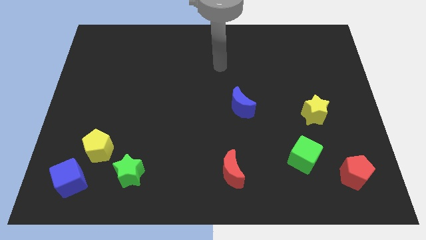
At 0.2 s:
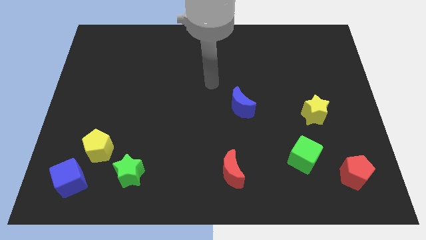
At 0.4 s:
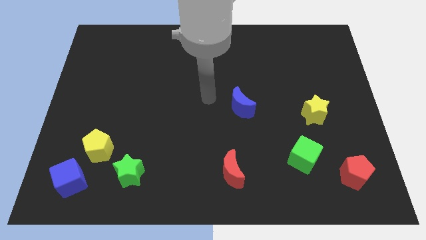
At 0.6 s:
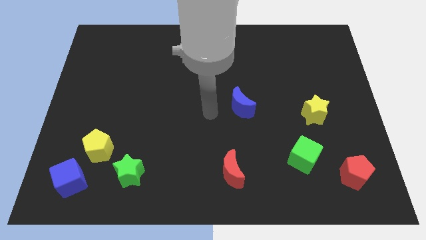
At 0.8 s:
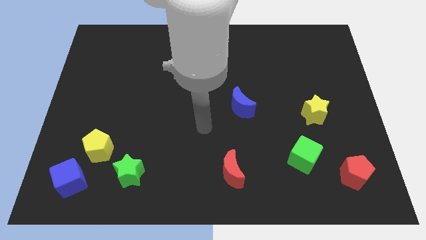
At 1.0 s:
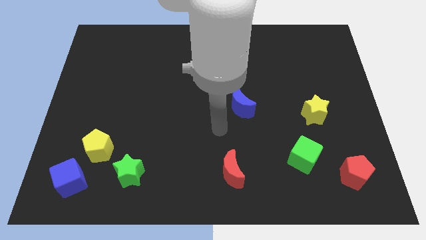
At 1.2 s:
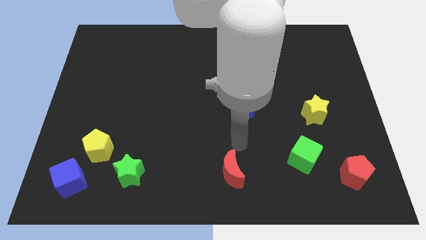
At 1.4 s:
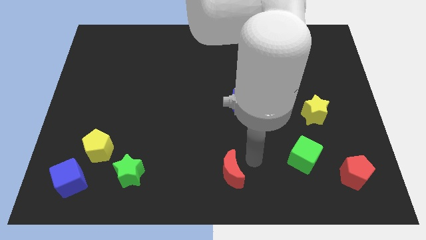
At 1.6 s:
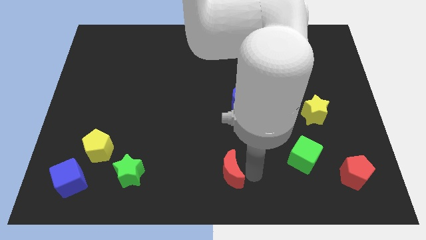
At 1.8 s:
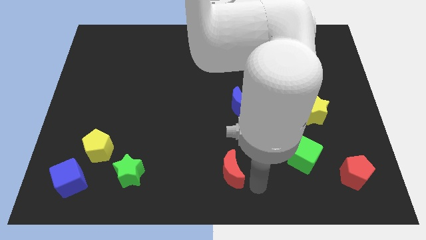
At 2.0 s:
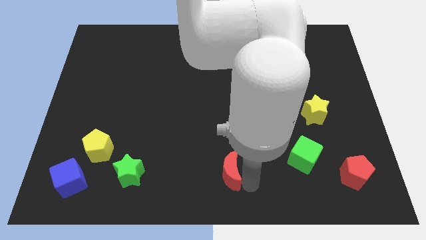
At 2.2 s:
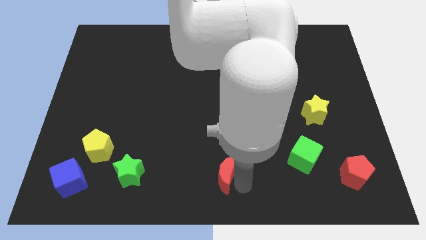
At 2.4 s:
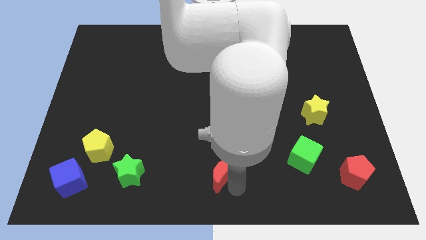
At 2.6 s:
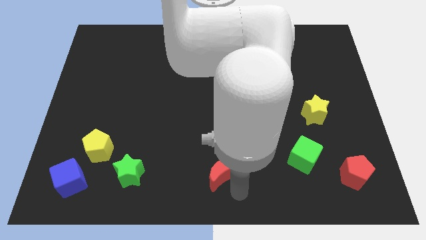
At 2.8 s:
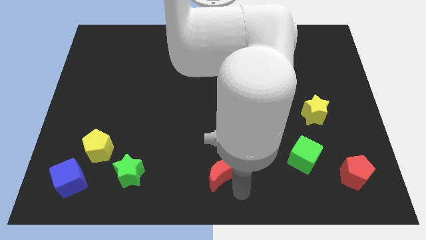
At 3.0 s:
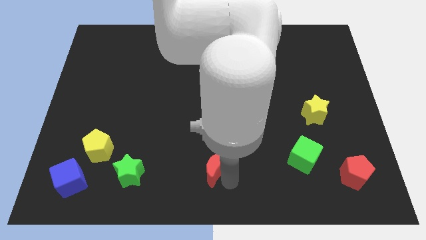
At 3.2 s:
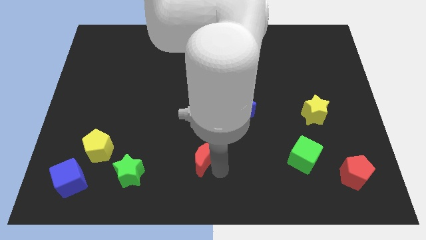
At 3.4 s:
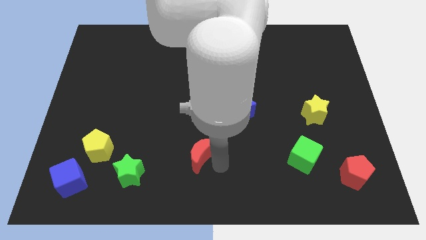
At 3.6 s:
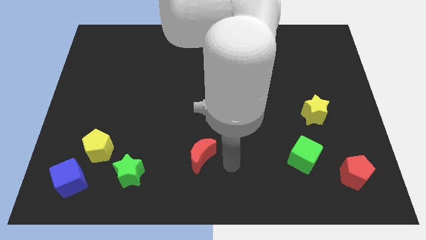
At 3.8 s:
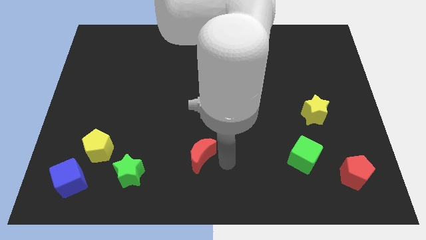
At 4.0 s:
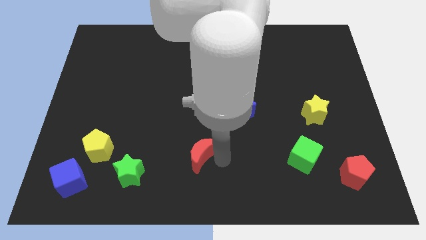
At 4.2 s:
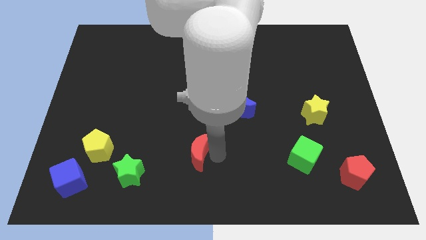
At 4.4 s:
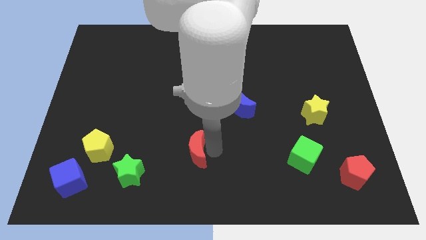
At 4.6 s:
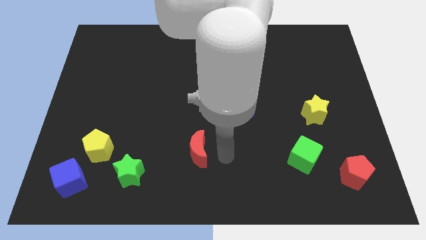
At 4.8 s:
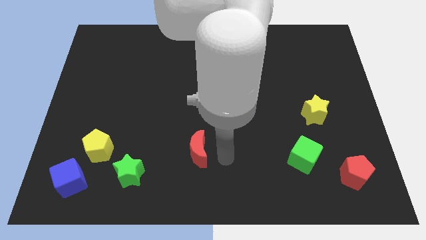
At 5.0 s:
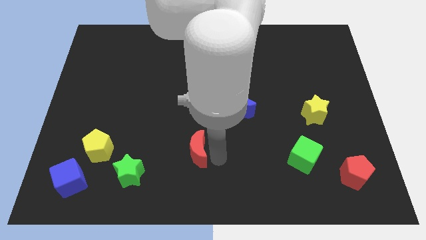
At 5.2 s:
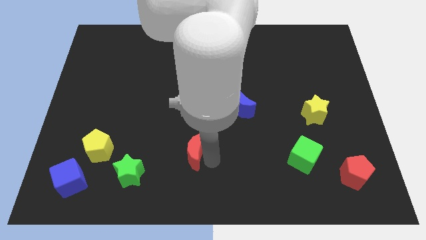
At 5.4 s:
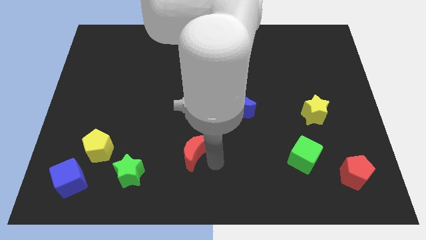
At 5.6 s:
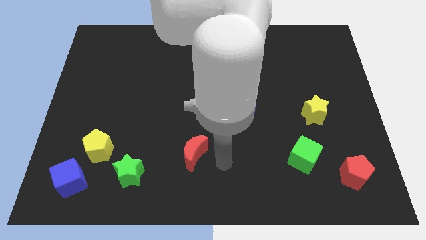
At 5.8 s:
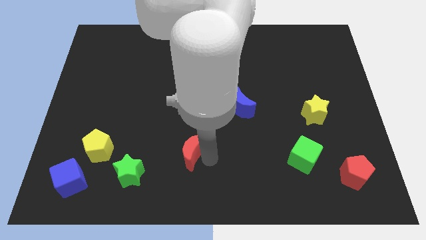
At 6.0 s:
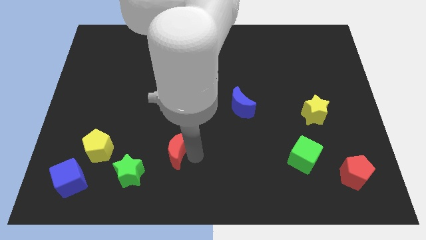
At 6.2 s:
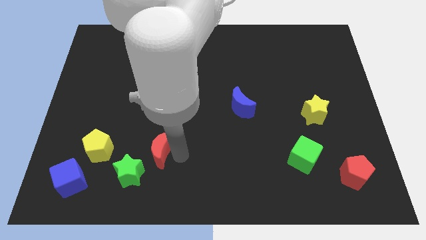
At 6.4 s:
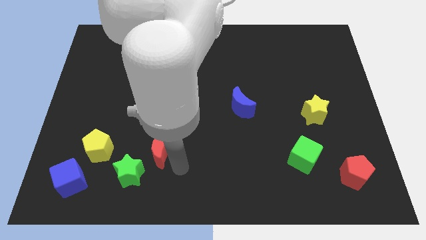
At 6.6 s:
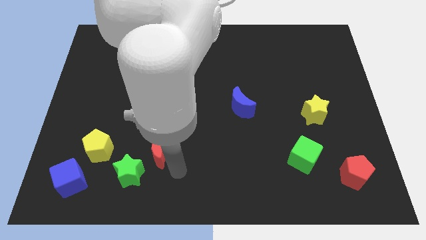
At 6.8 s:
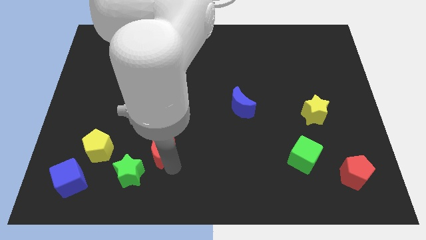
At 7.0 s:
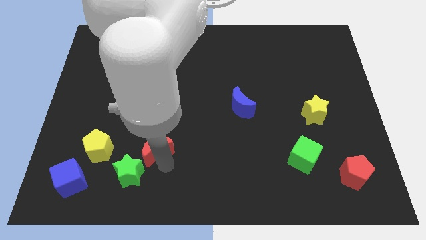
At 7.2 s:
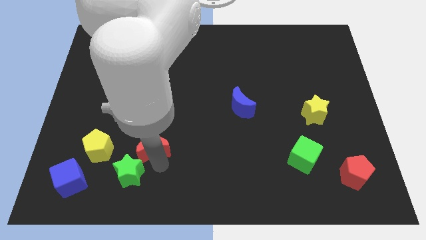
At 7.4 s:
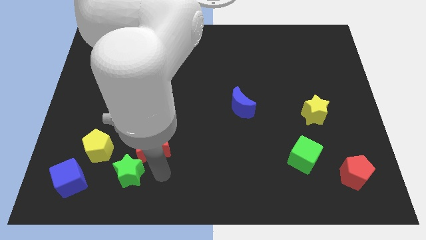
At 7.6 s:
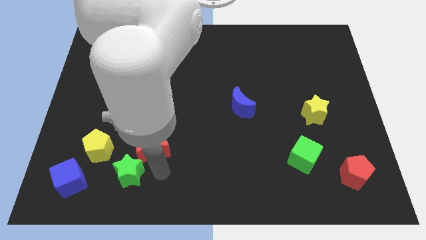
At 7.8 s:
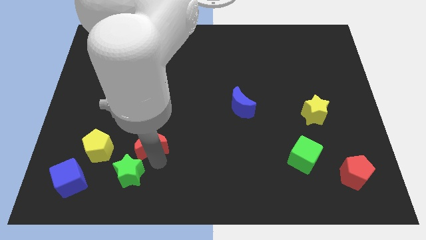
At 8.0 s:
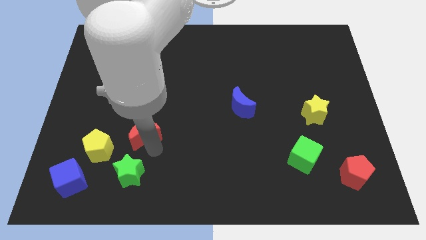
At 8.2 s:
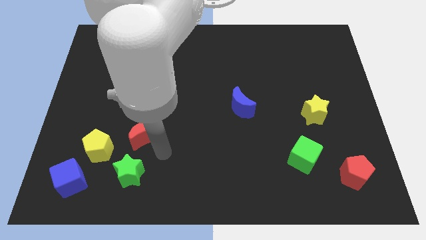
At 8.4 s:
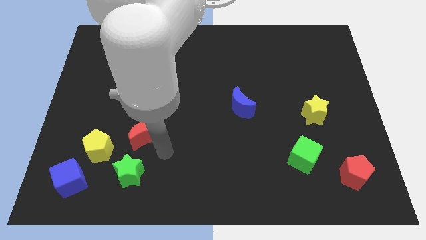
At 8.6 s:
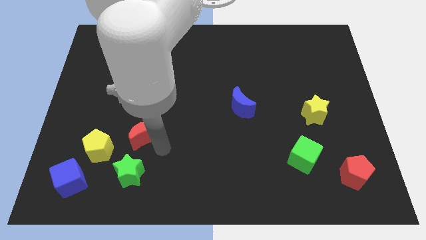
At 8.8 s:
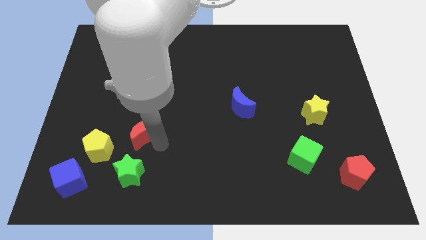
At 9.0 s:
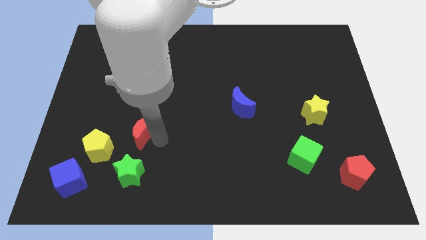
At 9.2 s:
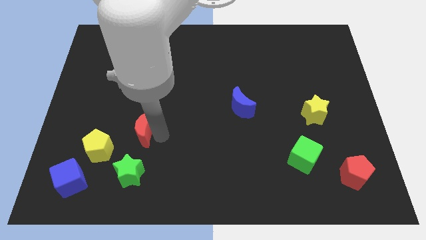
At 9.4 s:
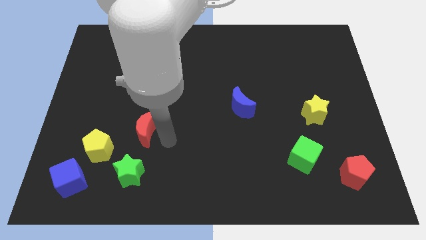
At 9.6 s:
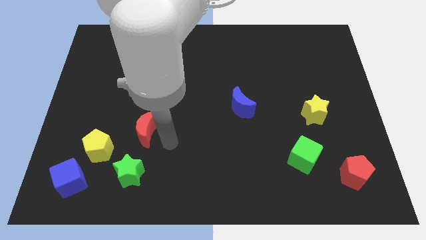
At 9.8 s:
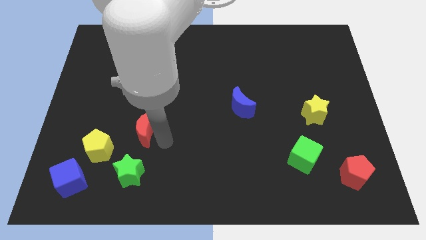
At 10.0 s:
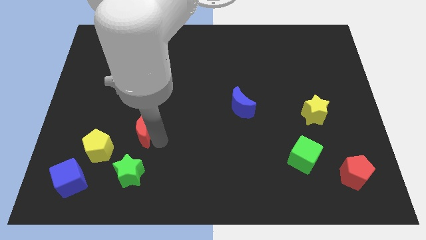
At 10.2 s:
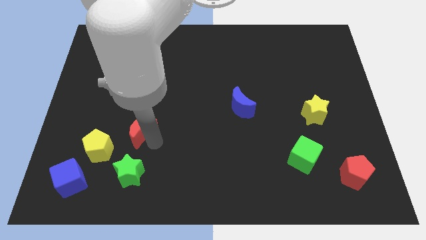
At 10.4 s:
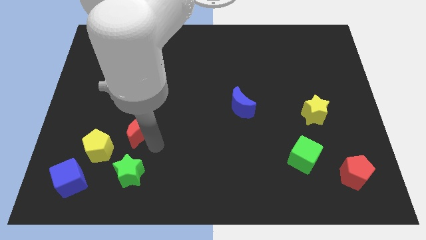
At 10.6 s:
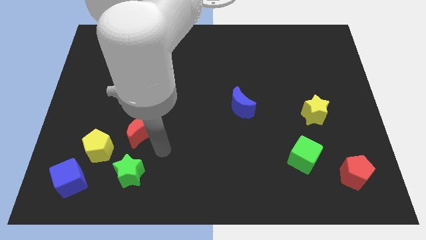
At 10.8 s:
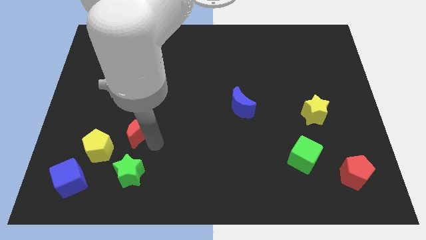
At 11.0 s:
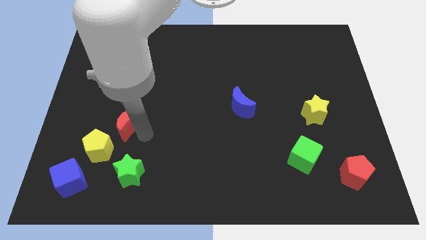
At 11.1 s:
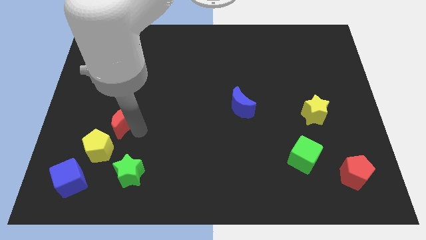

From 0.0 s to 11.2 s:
slide the red moon above the yellow pentagon

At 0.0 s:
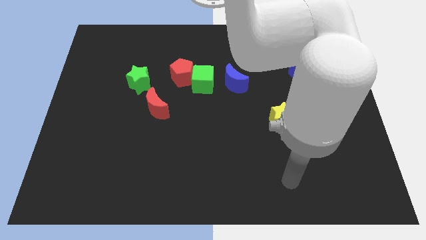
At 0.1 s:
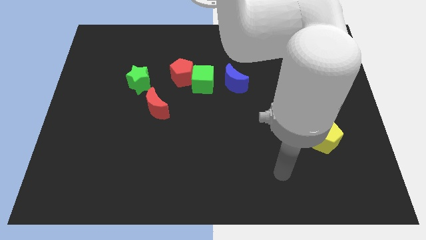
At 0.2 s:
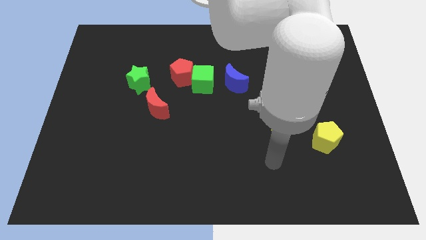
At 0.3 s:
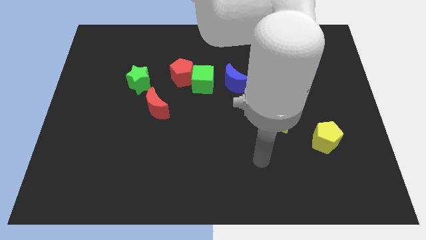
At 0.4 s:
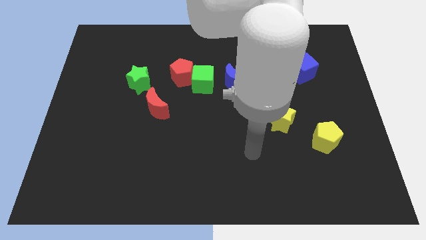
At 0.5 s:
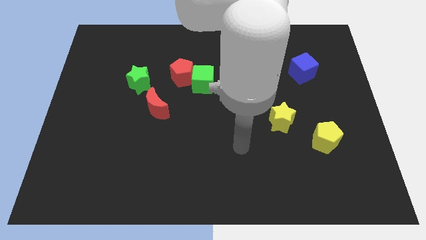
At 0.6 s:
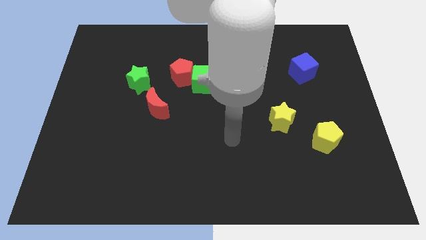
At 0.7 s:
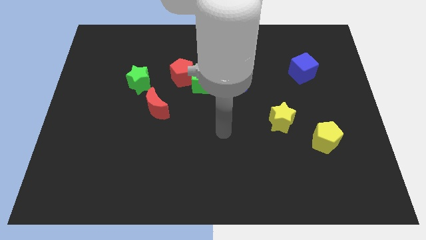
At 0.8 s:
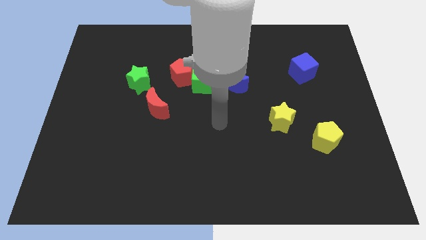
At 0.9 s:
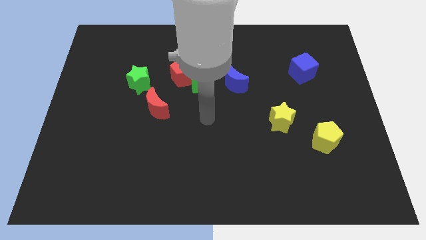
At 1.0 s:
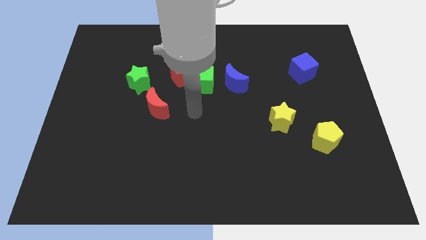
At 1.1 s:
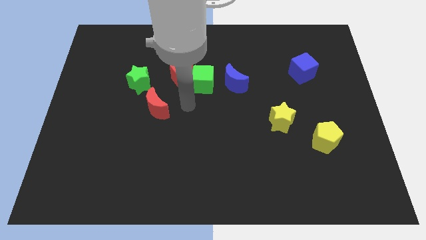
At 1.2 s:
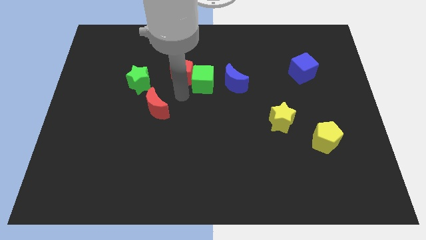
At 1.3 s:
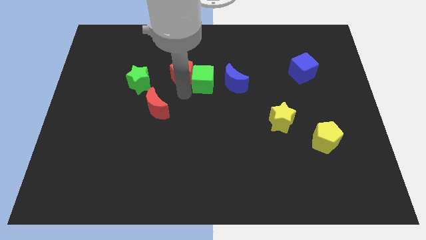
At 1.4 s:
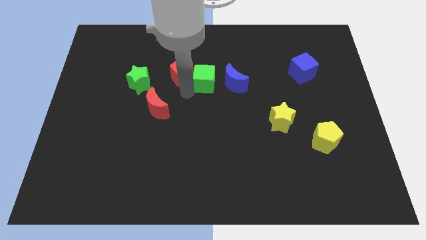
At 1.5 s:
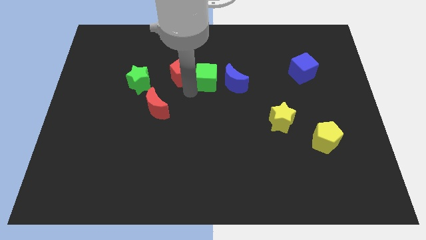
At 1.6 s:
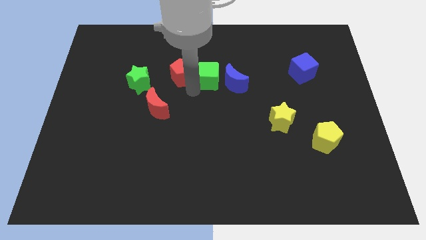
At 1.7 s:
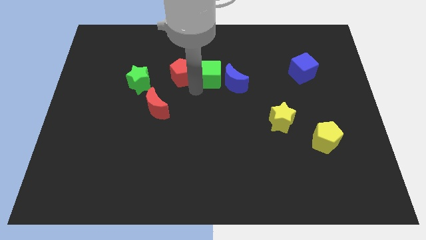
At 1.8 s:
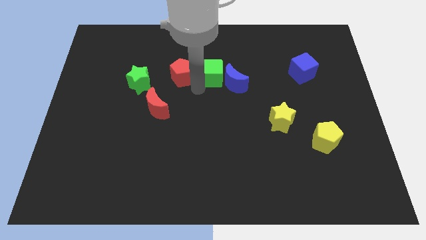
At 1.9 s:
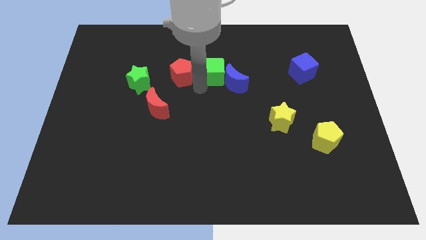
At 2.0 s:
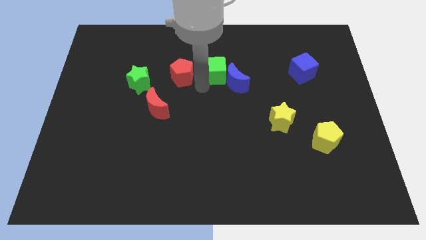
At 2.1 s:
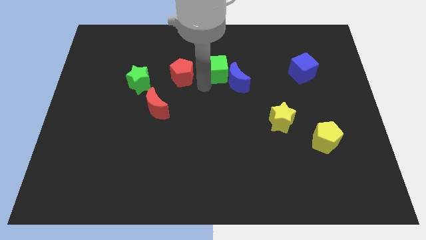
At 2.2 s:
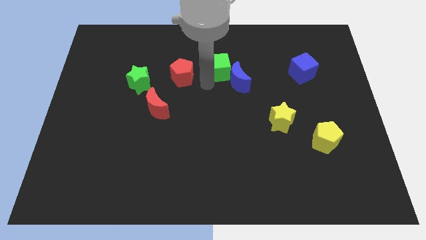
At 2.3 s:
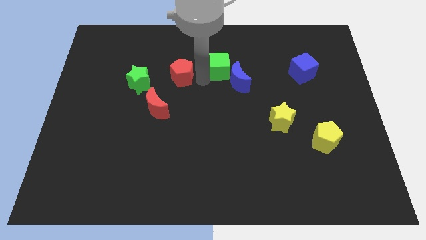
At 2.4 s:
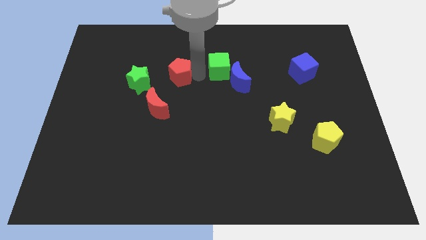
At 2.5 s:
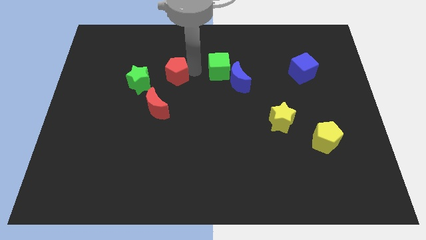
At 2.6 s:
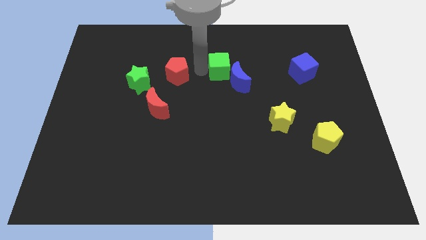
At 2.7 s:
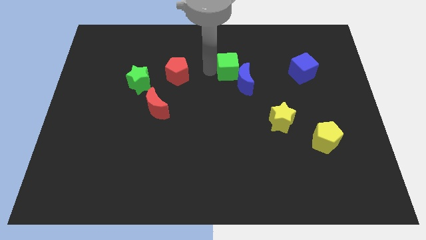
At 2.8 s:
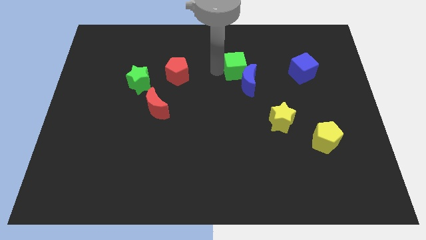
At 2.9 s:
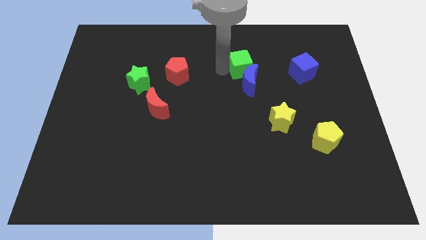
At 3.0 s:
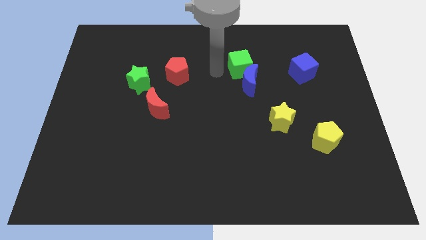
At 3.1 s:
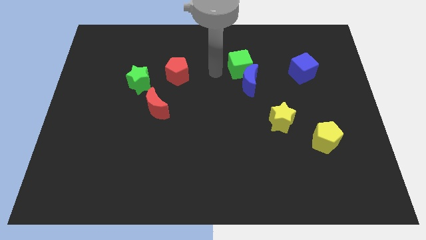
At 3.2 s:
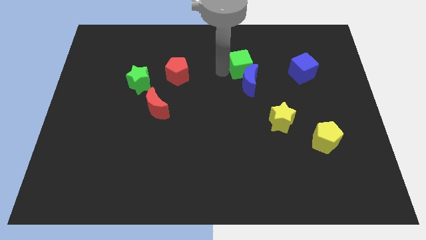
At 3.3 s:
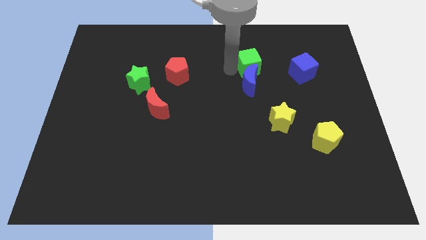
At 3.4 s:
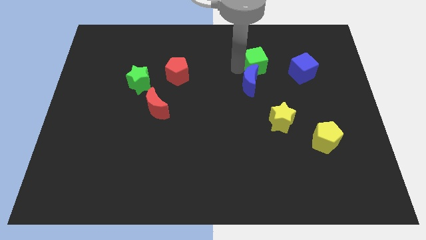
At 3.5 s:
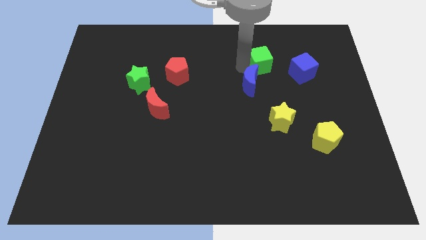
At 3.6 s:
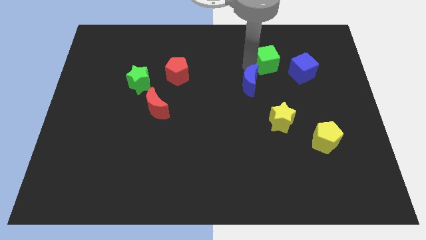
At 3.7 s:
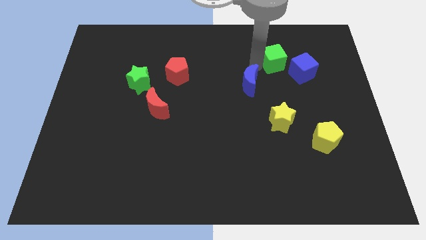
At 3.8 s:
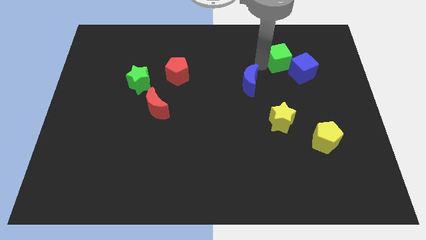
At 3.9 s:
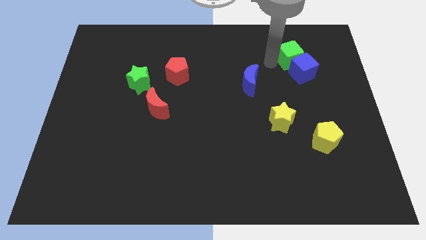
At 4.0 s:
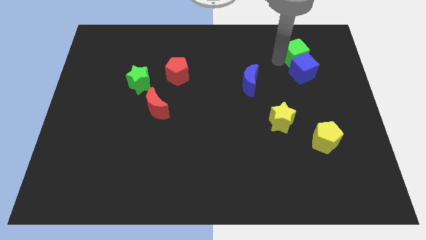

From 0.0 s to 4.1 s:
move the green cube to the top right of the blue cube
